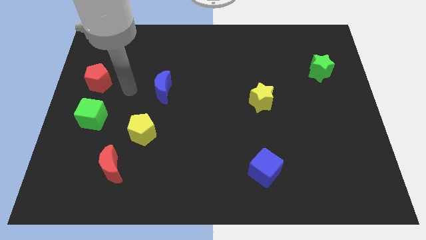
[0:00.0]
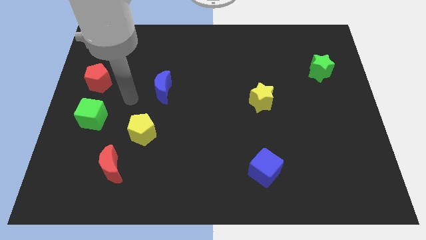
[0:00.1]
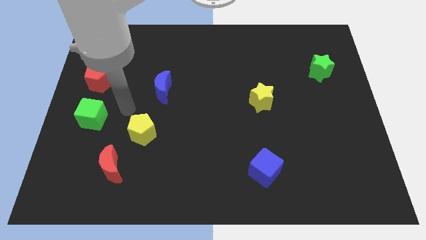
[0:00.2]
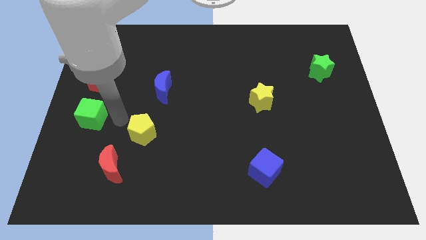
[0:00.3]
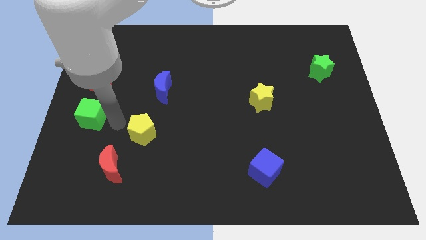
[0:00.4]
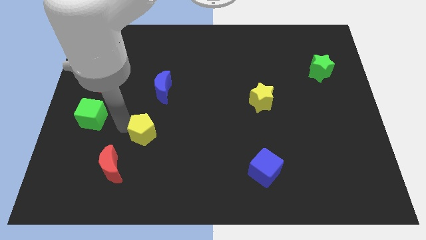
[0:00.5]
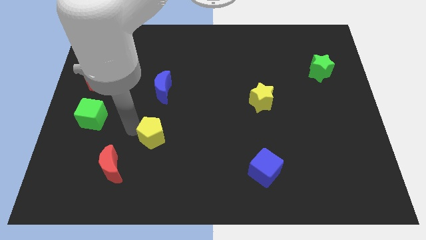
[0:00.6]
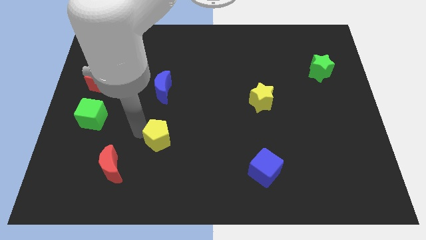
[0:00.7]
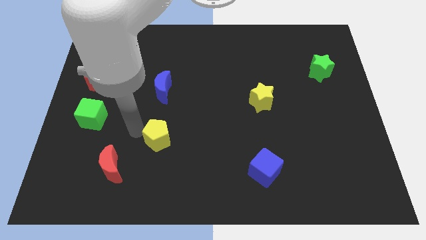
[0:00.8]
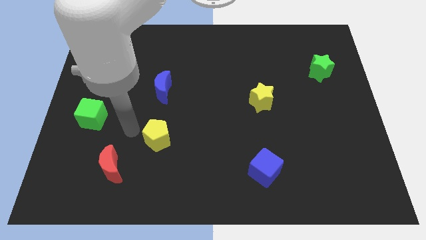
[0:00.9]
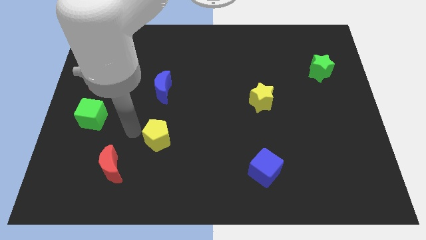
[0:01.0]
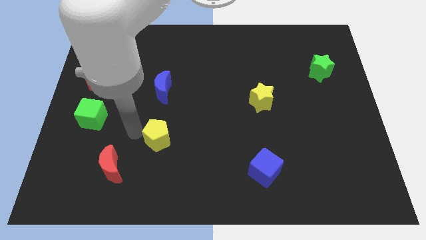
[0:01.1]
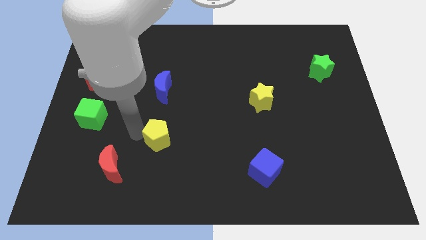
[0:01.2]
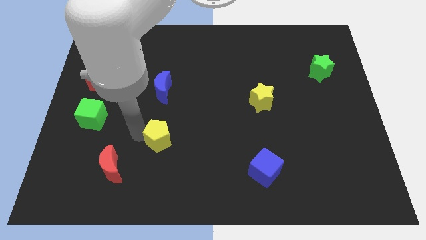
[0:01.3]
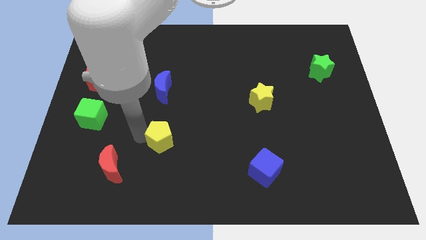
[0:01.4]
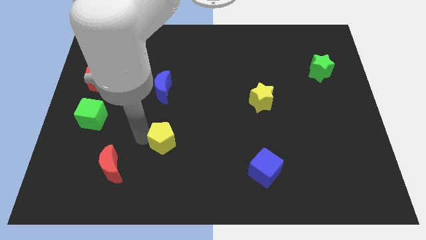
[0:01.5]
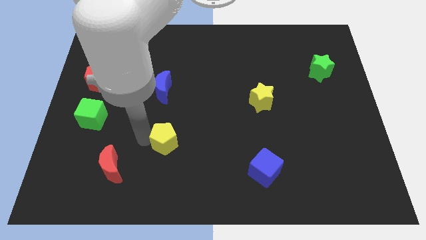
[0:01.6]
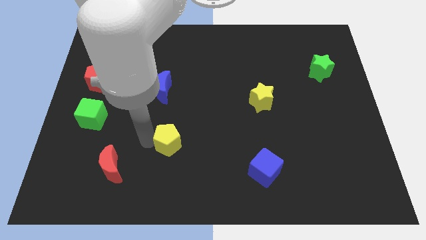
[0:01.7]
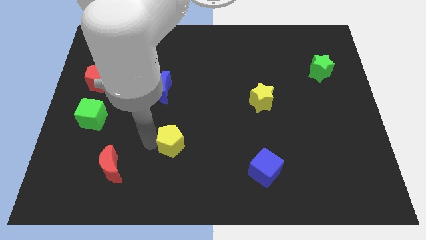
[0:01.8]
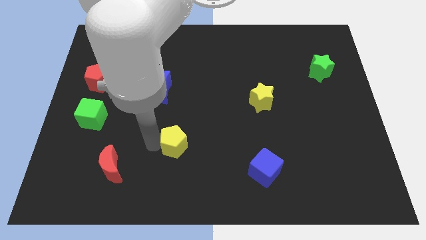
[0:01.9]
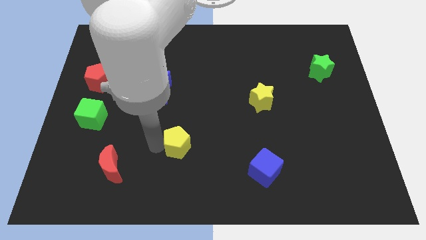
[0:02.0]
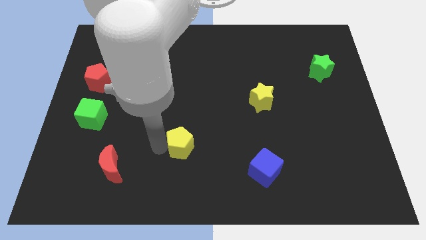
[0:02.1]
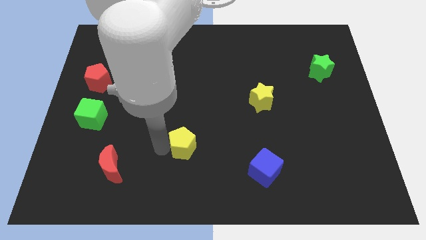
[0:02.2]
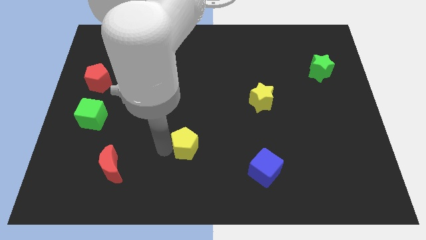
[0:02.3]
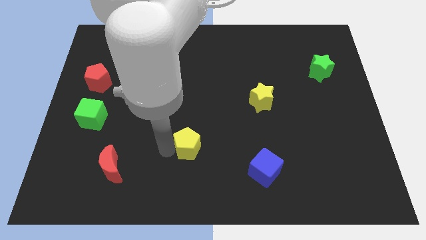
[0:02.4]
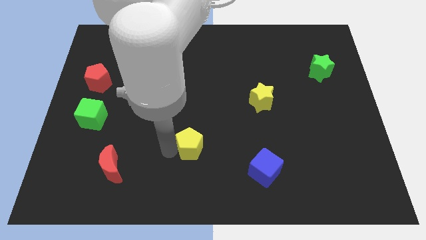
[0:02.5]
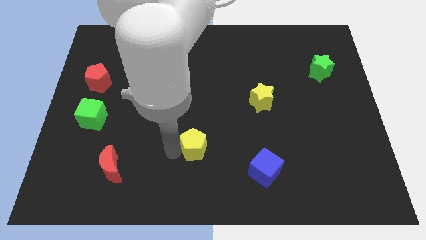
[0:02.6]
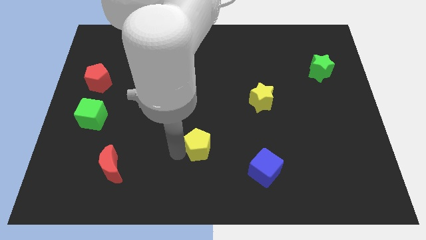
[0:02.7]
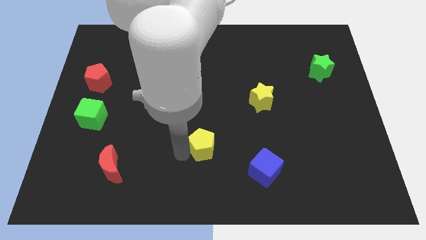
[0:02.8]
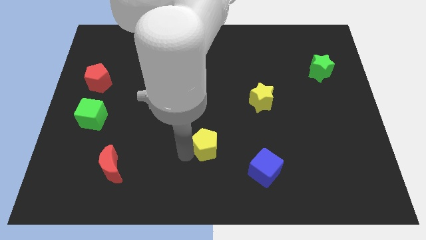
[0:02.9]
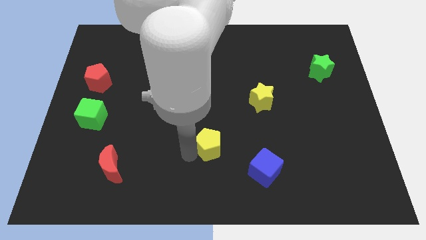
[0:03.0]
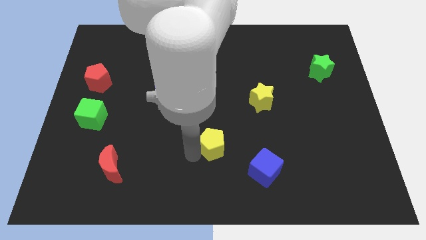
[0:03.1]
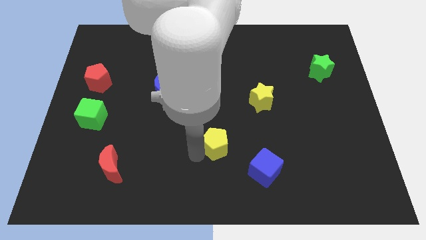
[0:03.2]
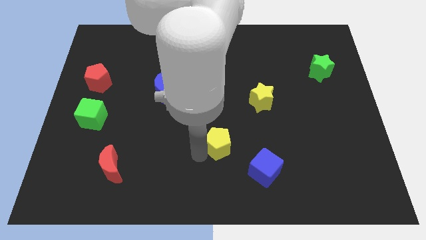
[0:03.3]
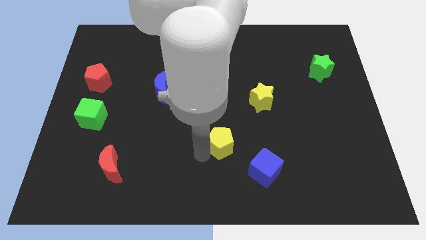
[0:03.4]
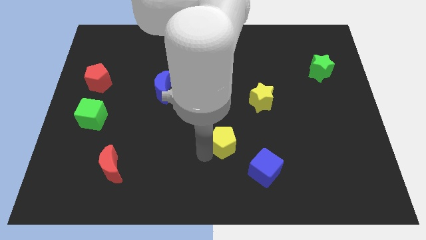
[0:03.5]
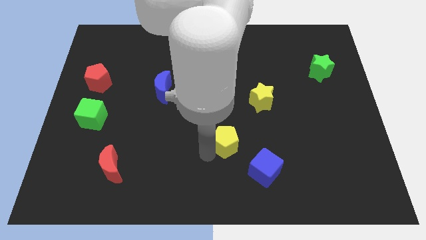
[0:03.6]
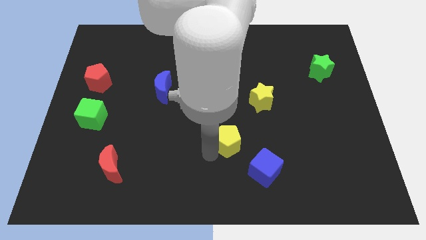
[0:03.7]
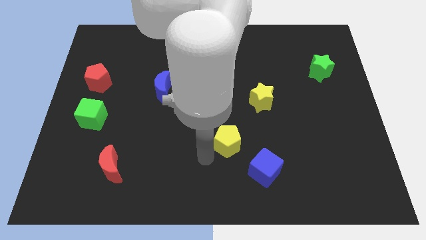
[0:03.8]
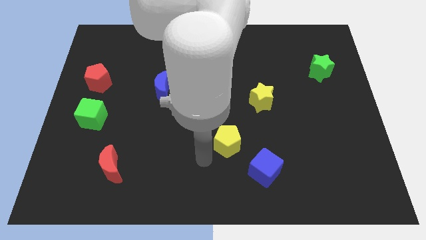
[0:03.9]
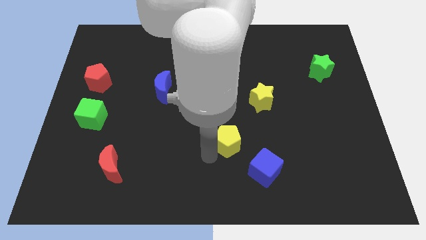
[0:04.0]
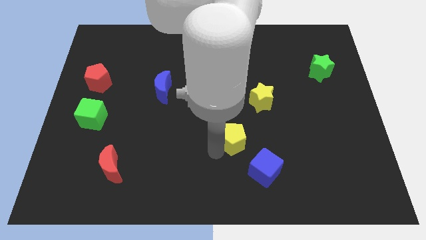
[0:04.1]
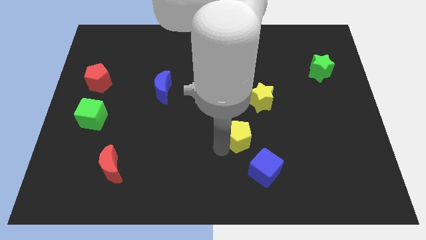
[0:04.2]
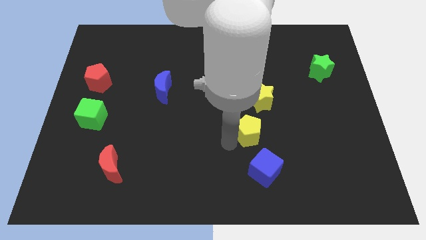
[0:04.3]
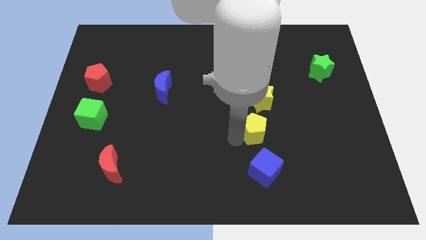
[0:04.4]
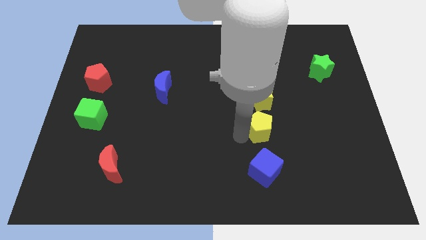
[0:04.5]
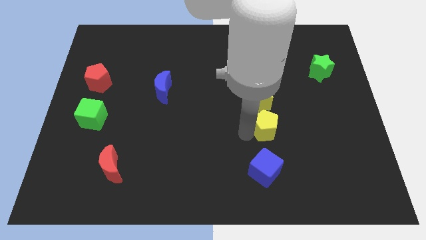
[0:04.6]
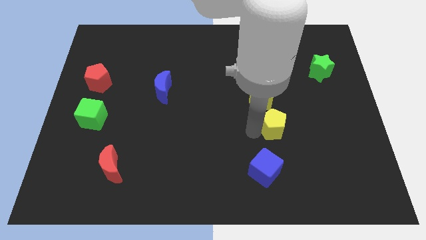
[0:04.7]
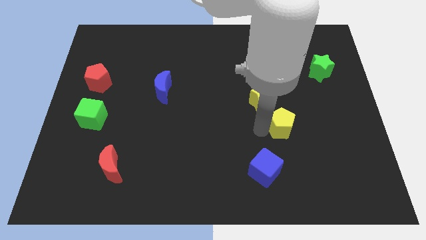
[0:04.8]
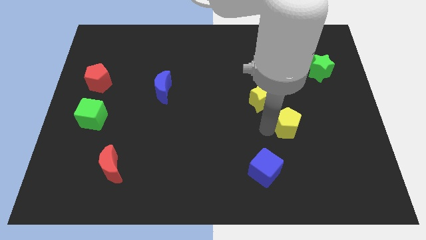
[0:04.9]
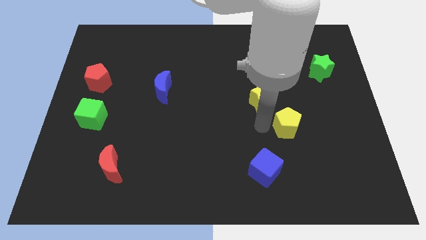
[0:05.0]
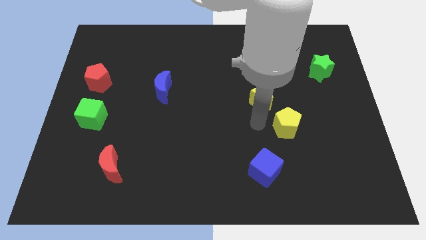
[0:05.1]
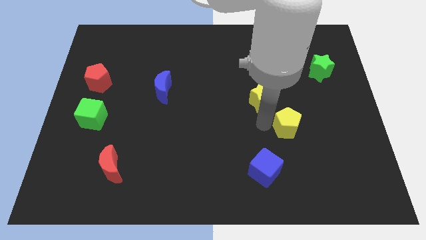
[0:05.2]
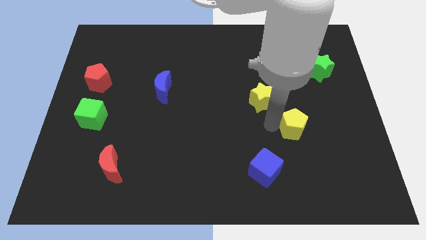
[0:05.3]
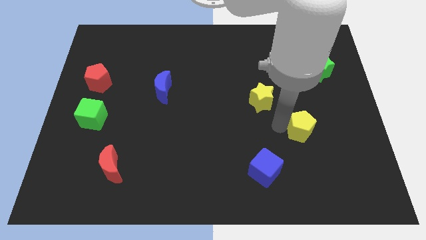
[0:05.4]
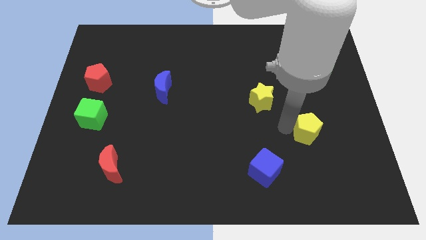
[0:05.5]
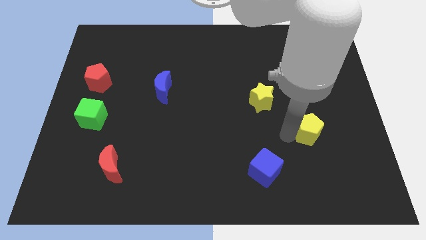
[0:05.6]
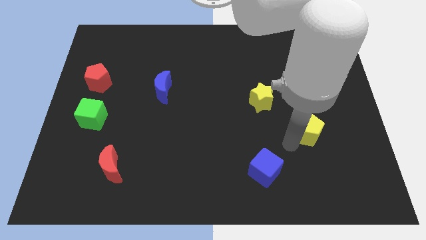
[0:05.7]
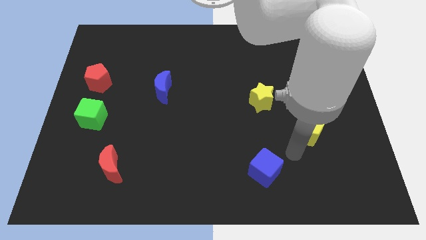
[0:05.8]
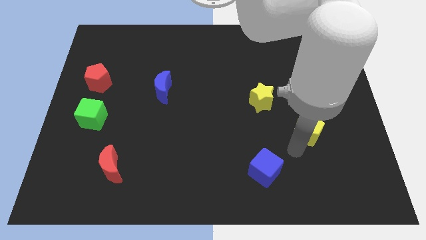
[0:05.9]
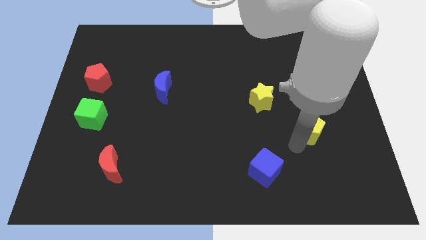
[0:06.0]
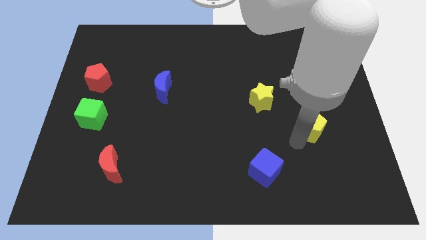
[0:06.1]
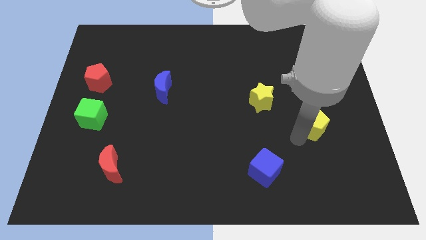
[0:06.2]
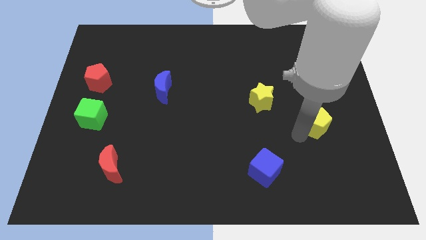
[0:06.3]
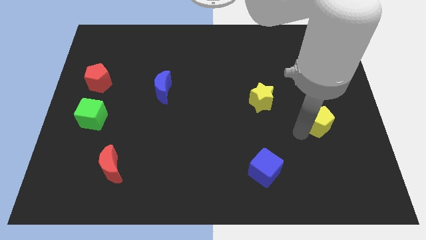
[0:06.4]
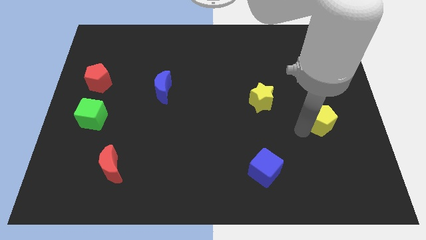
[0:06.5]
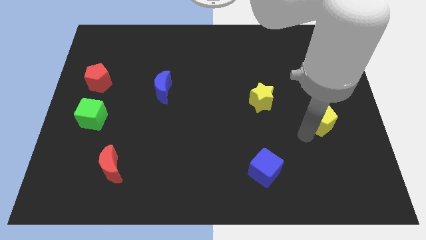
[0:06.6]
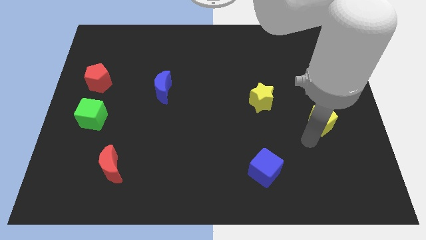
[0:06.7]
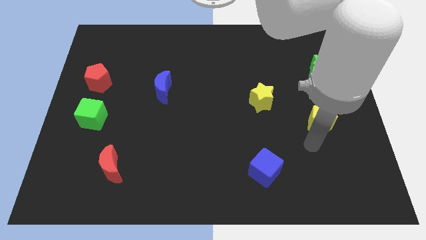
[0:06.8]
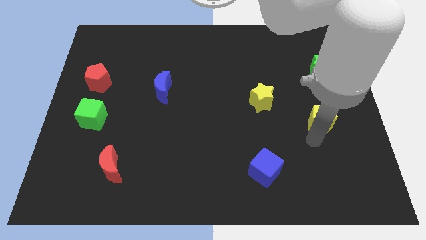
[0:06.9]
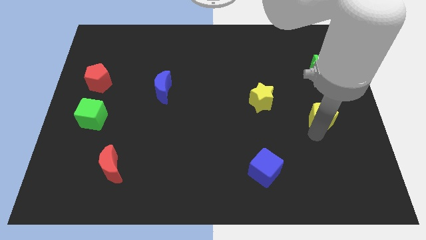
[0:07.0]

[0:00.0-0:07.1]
move the yellow pentagon to the bottom side of the green star
